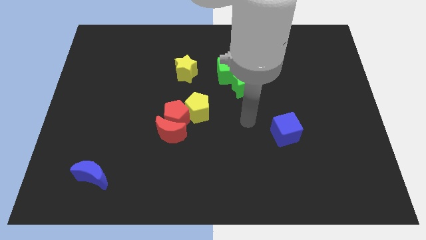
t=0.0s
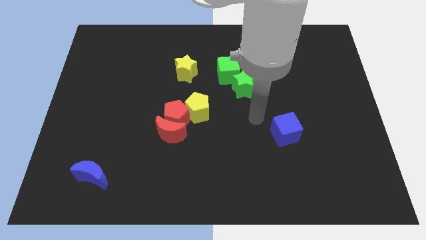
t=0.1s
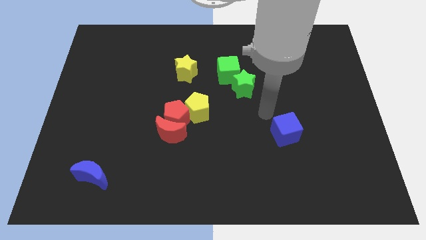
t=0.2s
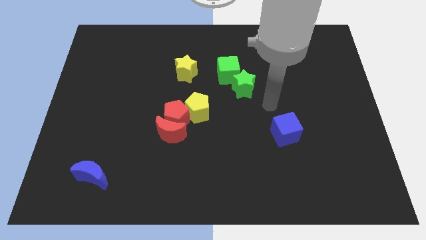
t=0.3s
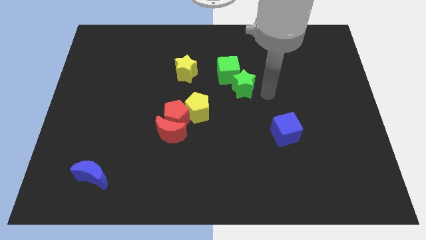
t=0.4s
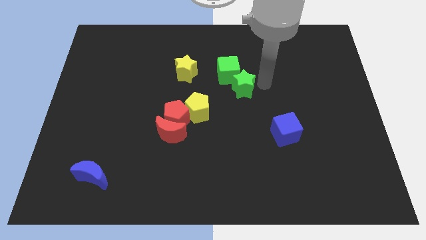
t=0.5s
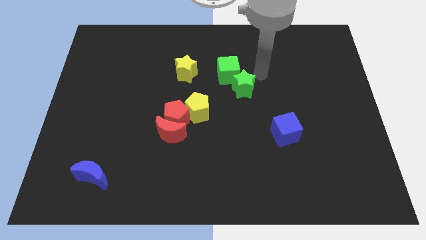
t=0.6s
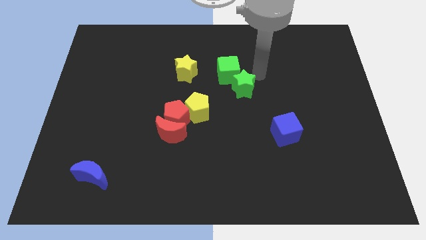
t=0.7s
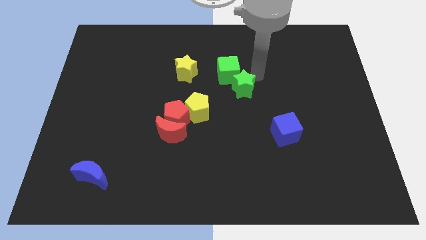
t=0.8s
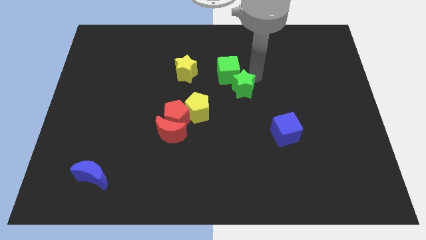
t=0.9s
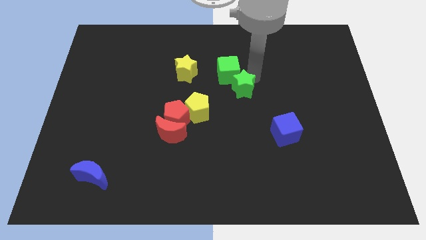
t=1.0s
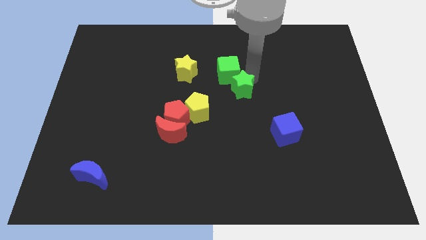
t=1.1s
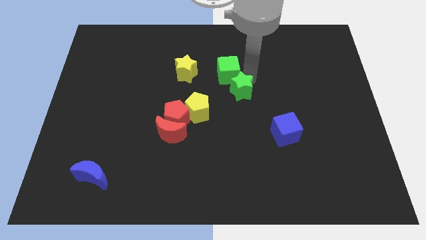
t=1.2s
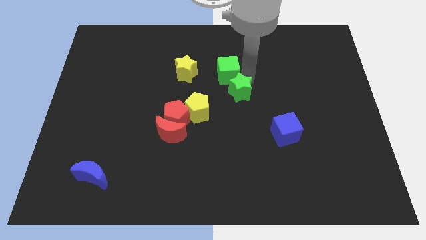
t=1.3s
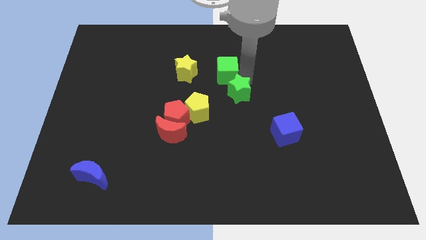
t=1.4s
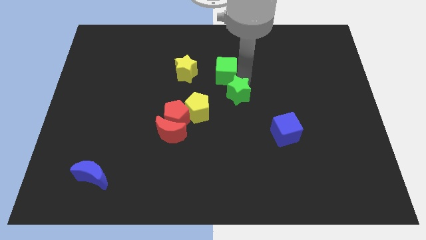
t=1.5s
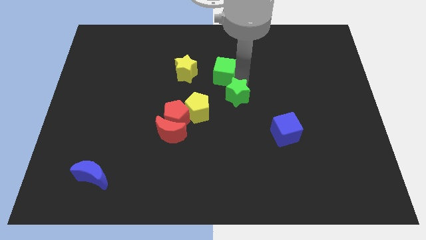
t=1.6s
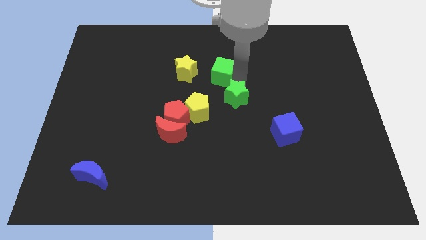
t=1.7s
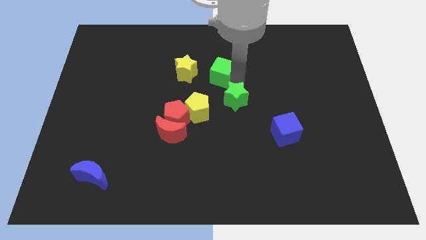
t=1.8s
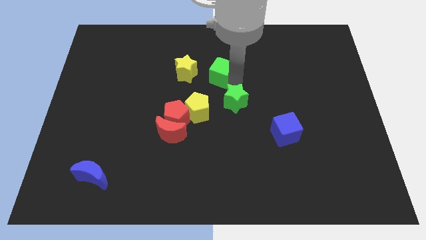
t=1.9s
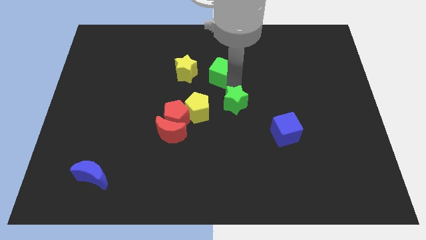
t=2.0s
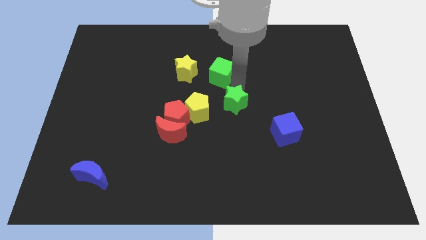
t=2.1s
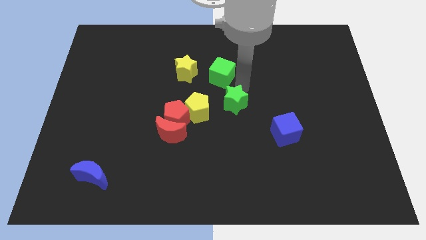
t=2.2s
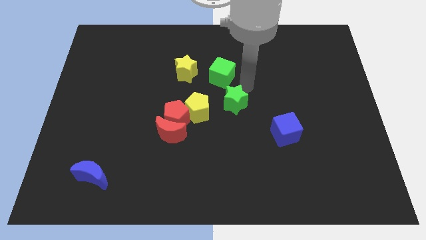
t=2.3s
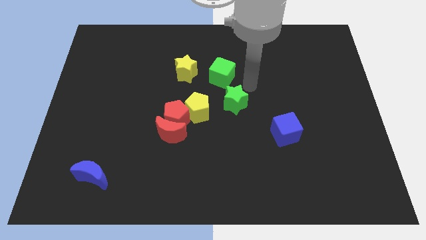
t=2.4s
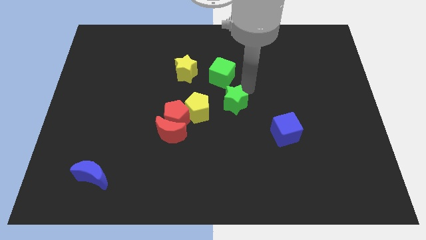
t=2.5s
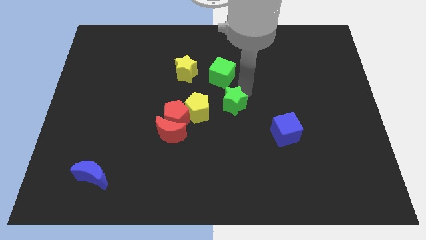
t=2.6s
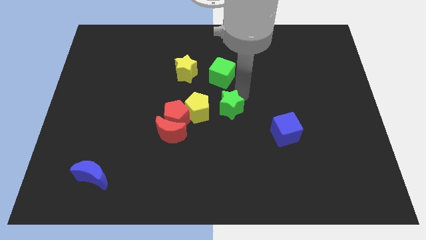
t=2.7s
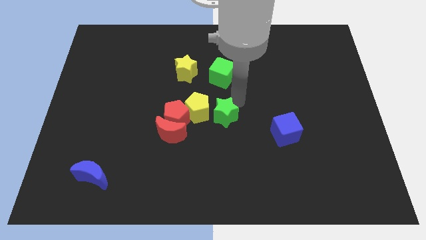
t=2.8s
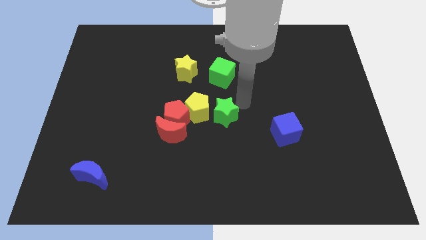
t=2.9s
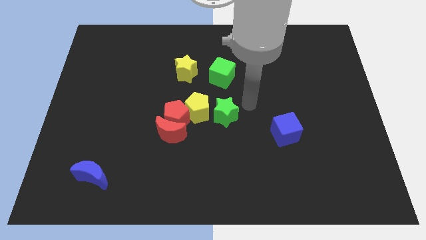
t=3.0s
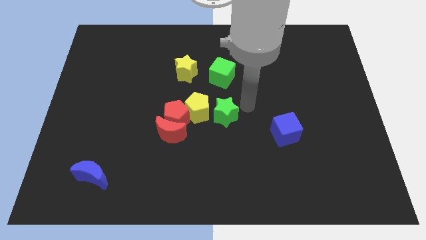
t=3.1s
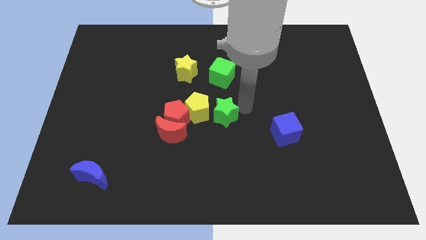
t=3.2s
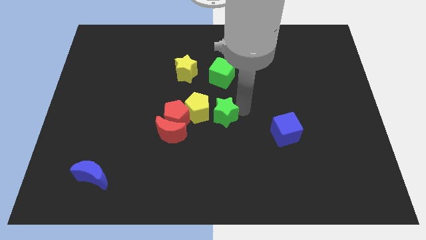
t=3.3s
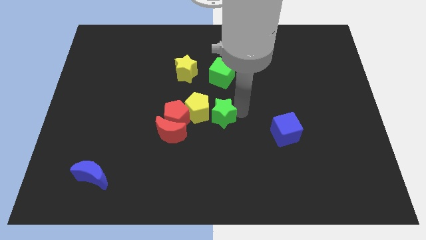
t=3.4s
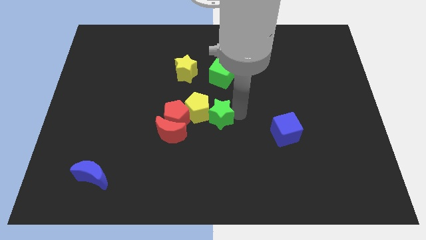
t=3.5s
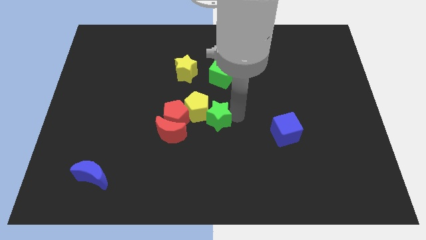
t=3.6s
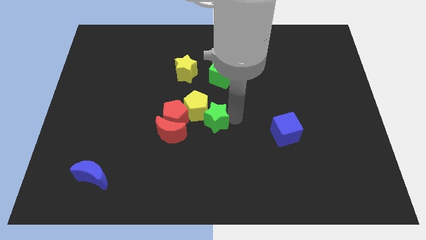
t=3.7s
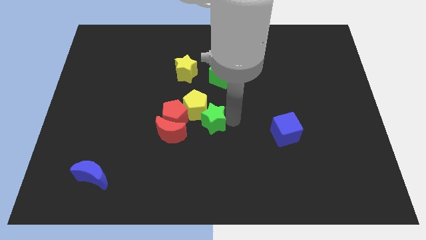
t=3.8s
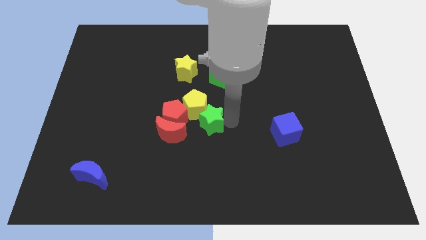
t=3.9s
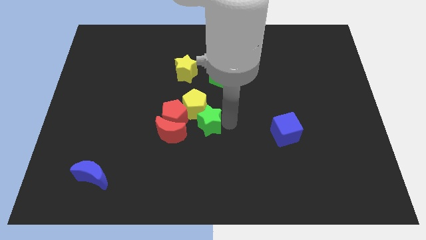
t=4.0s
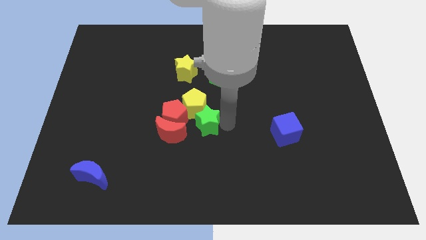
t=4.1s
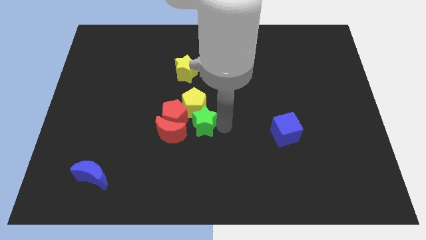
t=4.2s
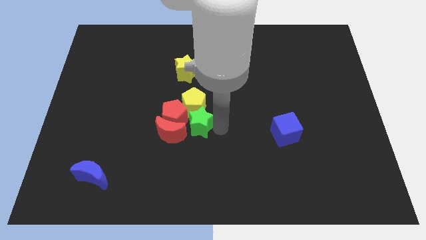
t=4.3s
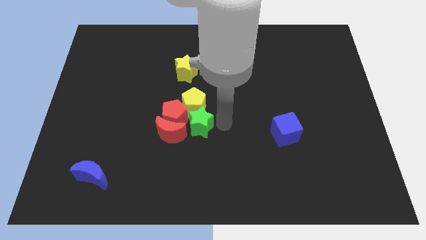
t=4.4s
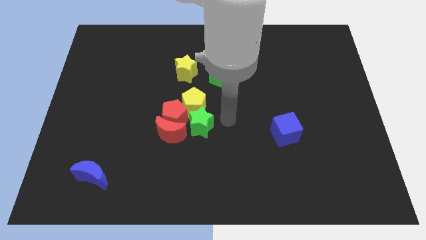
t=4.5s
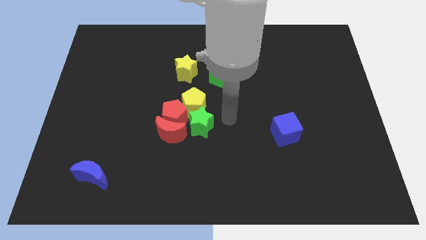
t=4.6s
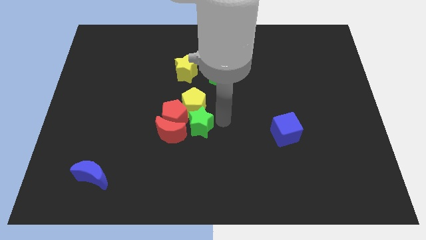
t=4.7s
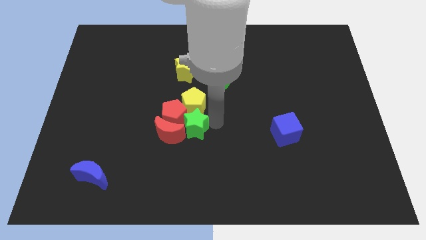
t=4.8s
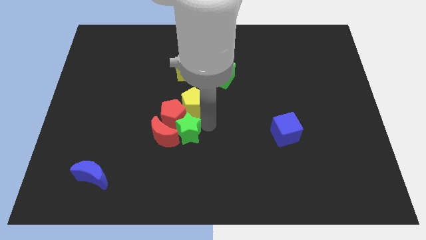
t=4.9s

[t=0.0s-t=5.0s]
move the green star next to the red moon

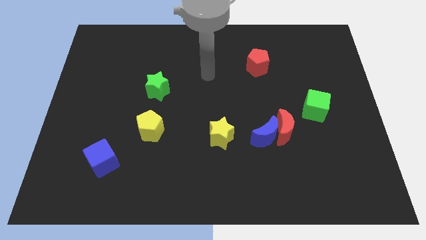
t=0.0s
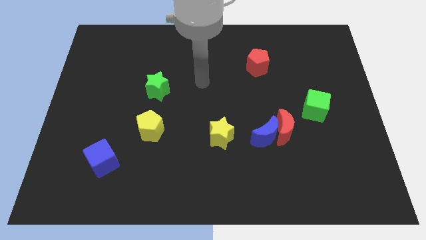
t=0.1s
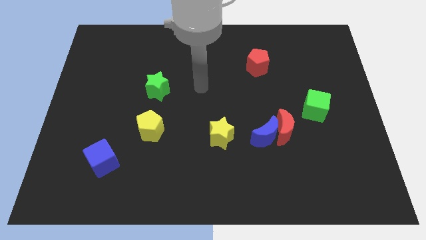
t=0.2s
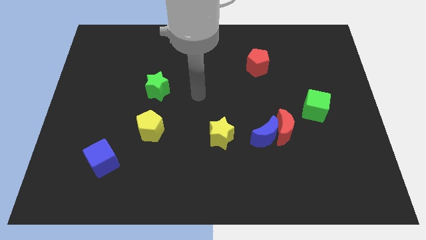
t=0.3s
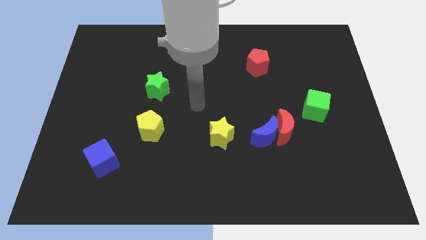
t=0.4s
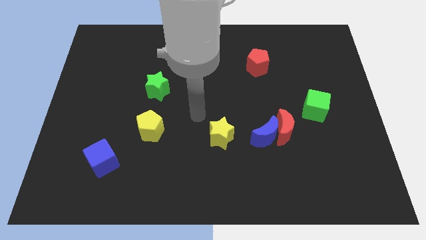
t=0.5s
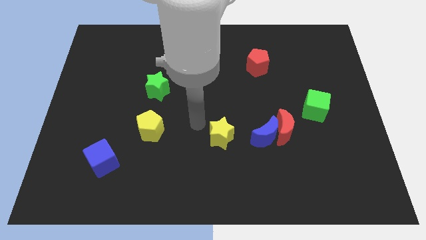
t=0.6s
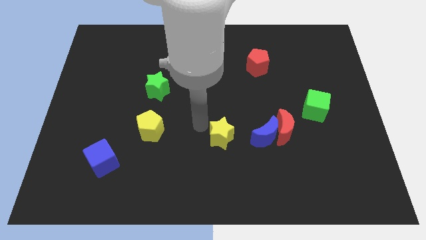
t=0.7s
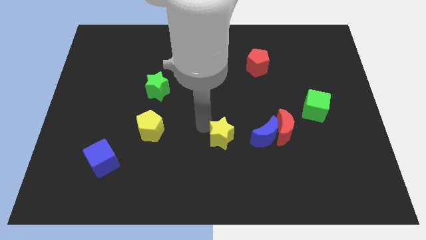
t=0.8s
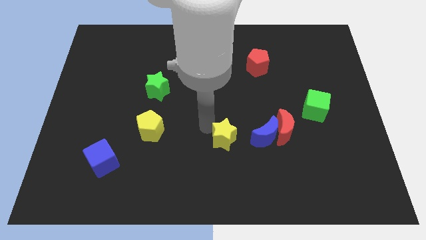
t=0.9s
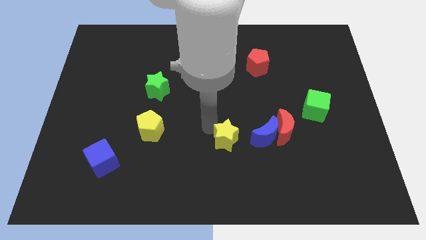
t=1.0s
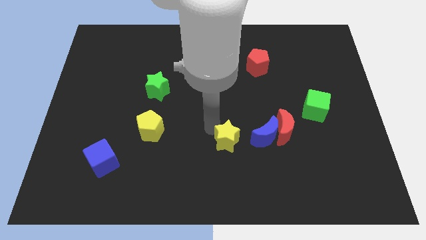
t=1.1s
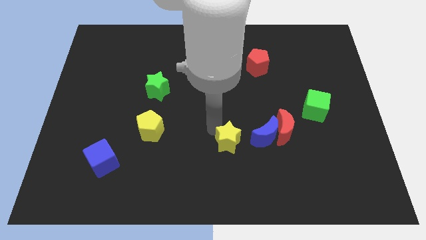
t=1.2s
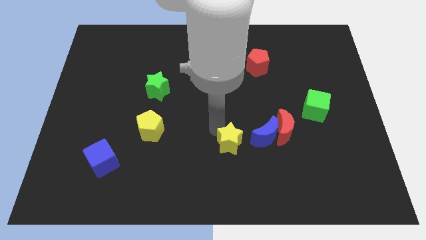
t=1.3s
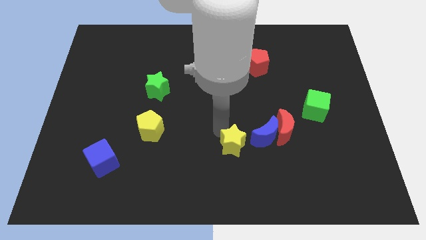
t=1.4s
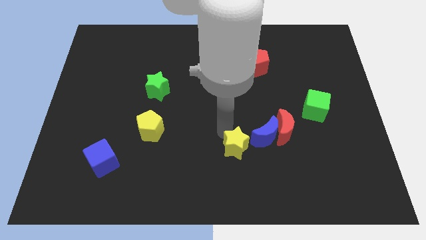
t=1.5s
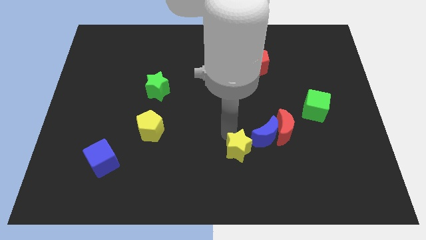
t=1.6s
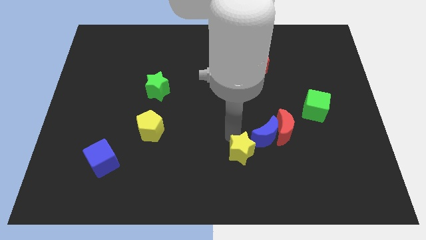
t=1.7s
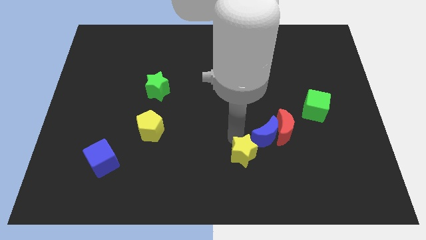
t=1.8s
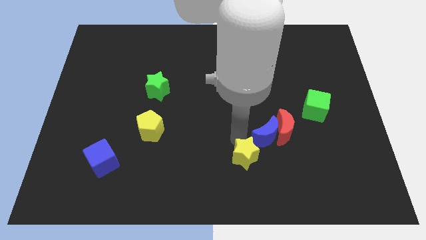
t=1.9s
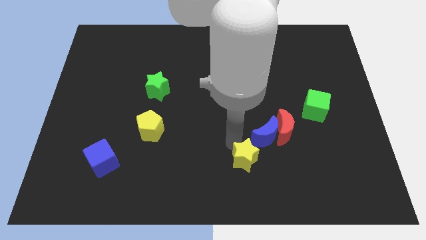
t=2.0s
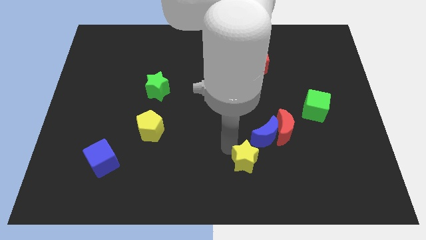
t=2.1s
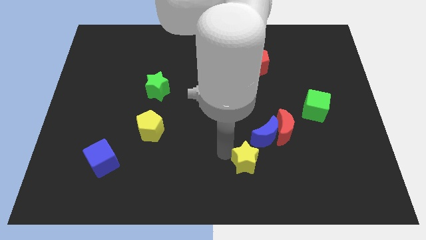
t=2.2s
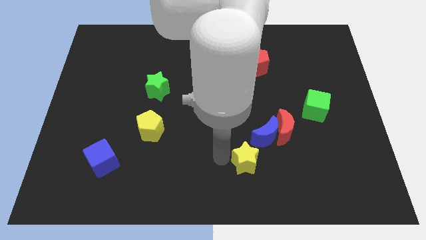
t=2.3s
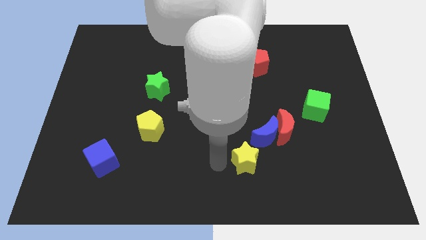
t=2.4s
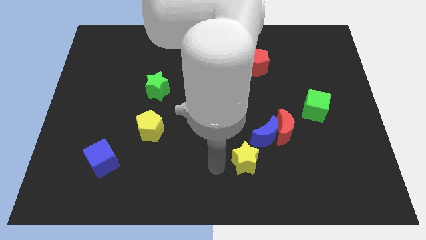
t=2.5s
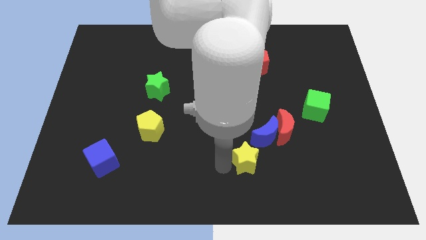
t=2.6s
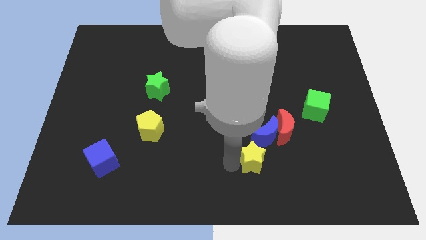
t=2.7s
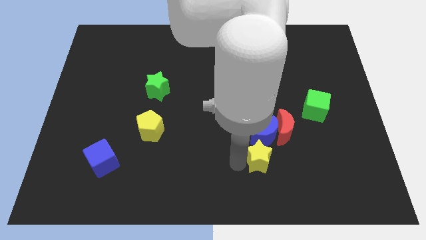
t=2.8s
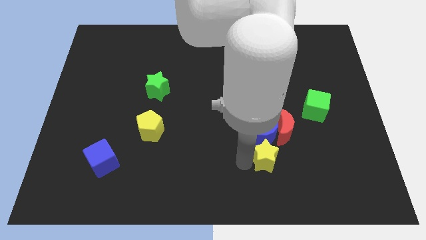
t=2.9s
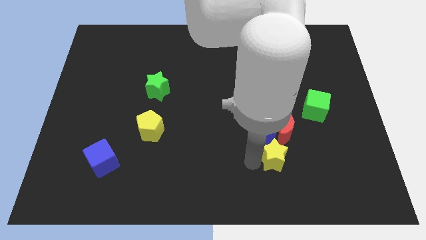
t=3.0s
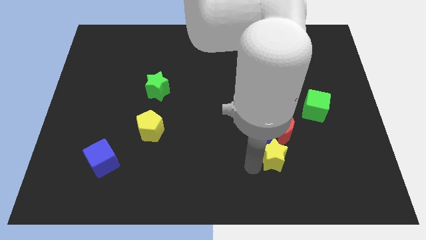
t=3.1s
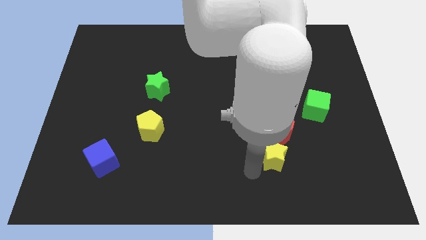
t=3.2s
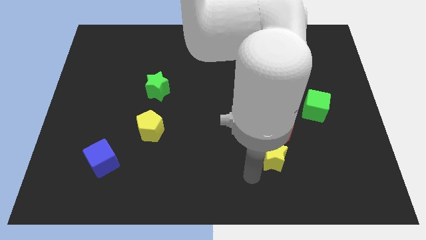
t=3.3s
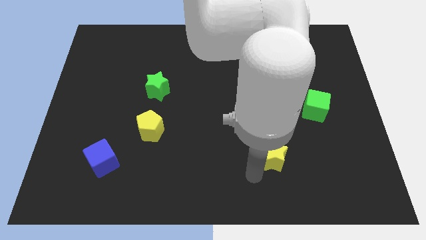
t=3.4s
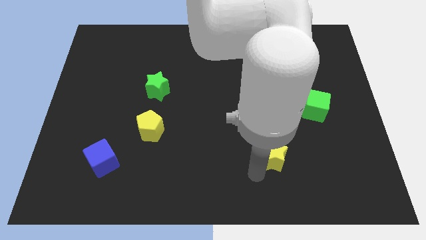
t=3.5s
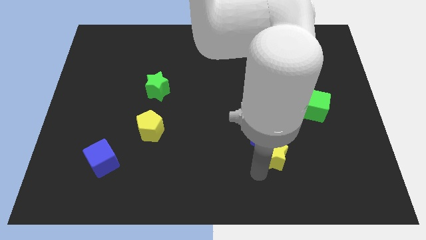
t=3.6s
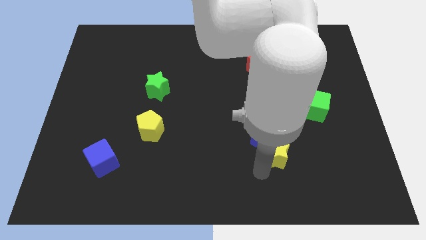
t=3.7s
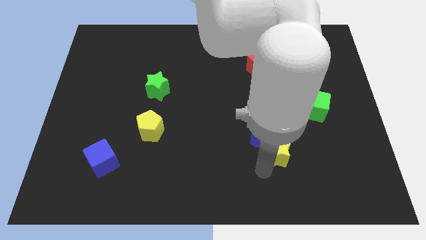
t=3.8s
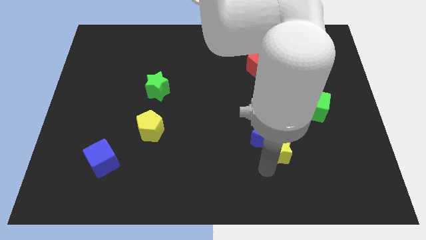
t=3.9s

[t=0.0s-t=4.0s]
put the yellow star next to the red moon
